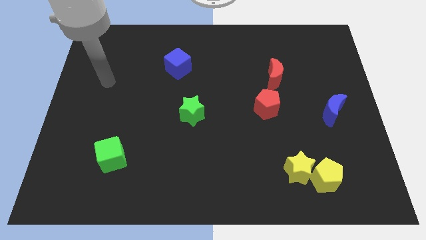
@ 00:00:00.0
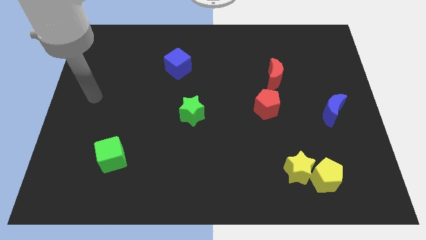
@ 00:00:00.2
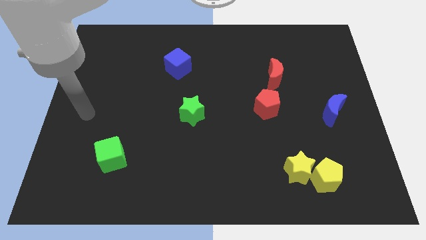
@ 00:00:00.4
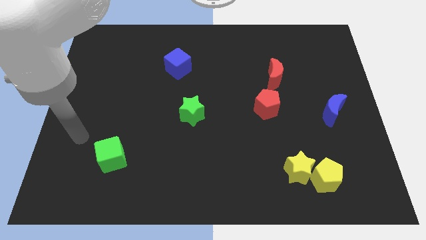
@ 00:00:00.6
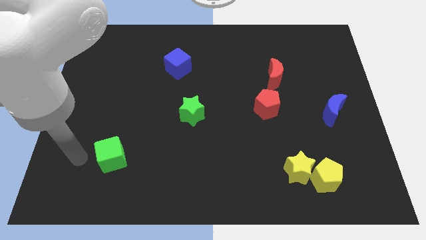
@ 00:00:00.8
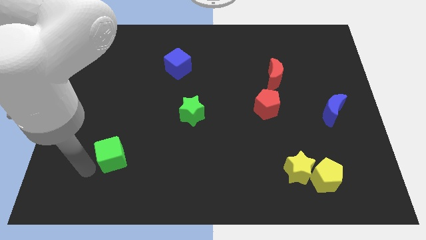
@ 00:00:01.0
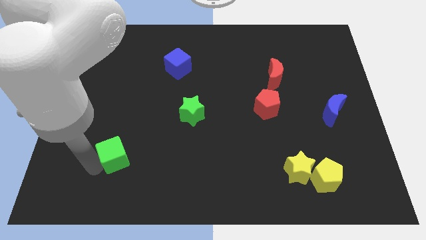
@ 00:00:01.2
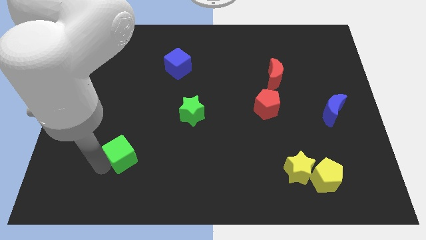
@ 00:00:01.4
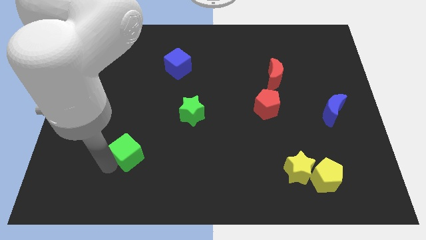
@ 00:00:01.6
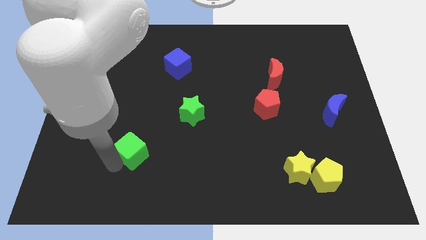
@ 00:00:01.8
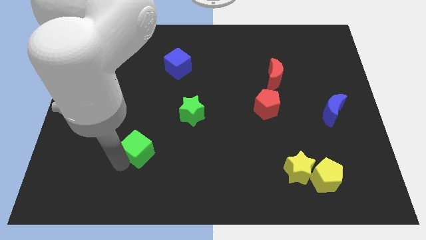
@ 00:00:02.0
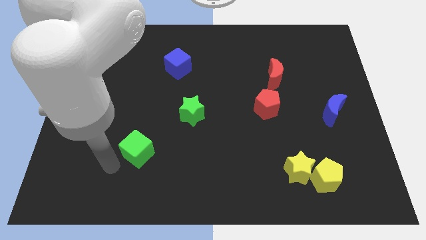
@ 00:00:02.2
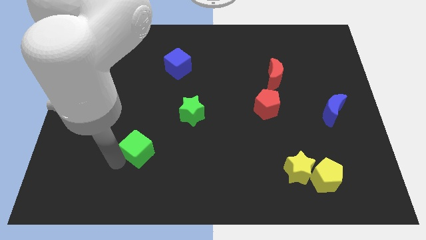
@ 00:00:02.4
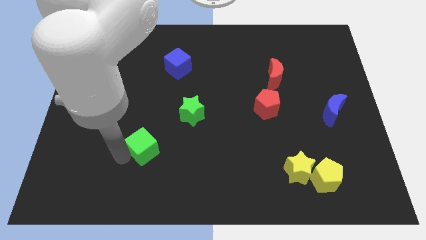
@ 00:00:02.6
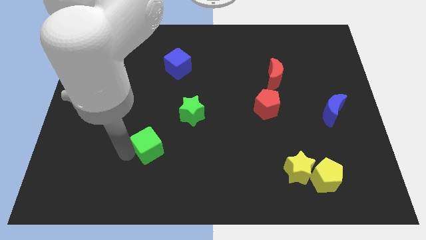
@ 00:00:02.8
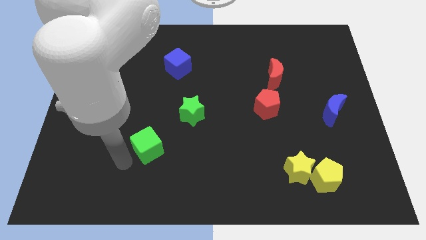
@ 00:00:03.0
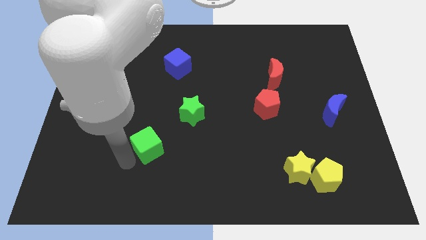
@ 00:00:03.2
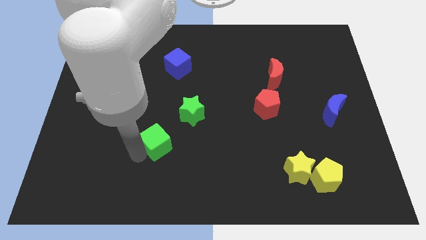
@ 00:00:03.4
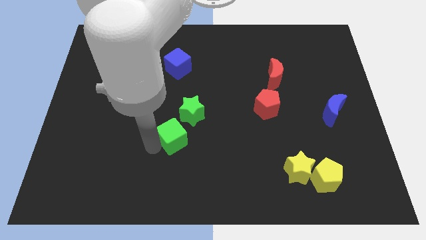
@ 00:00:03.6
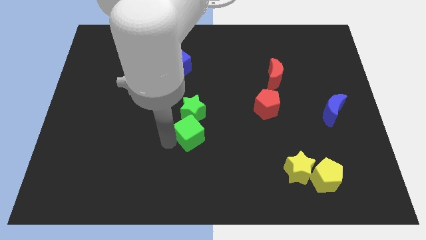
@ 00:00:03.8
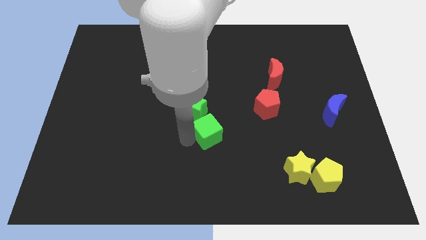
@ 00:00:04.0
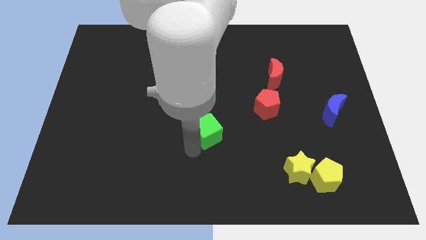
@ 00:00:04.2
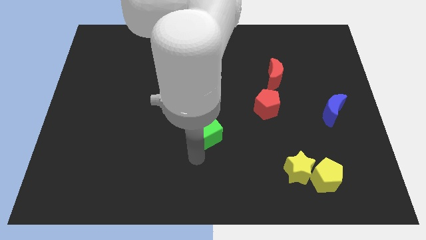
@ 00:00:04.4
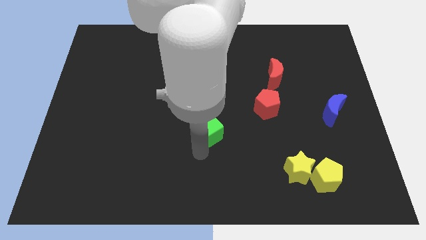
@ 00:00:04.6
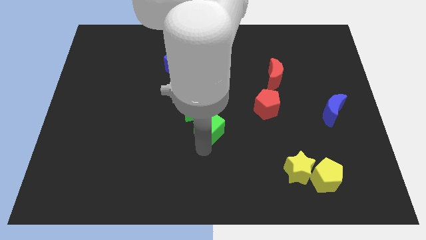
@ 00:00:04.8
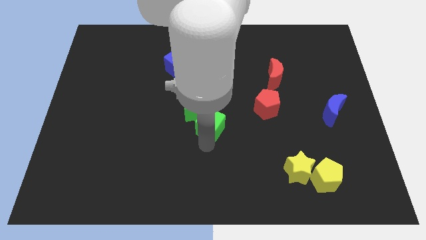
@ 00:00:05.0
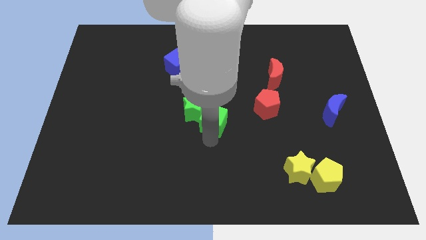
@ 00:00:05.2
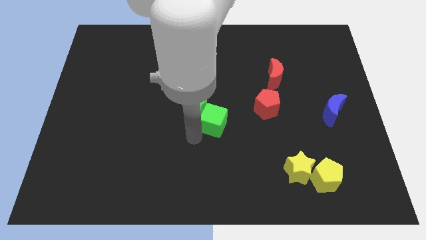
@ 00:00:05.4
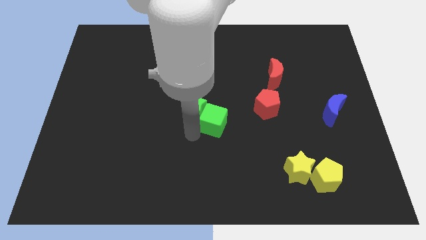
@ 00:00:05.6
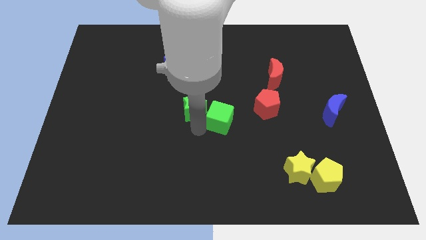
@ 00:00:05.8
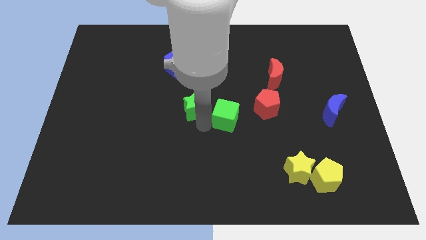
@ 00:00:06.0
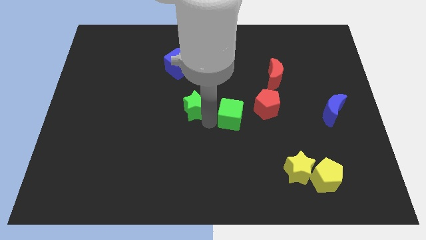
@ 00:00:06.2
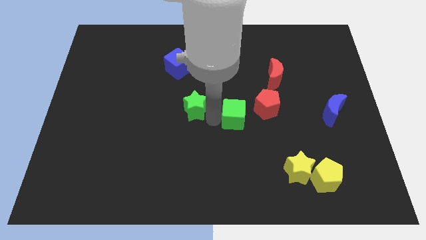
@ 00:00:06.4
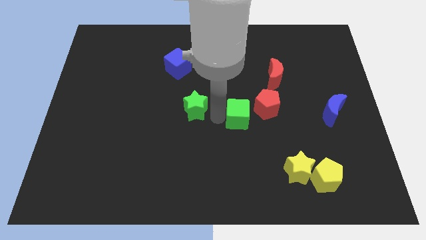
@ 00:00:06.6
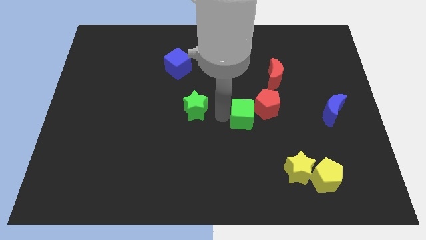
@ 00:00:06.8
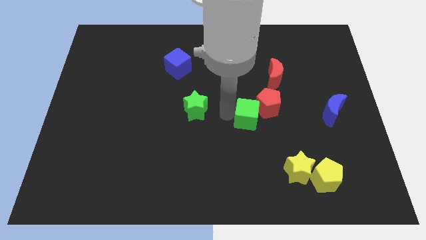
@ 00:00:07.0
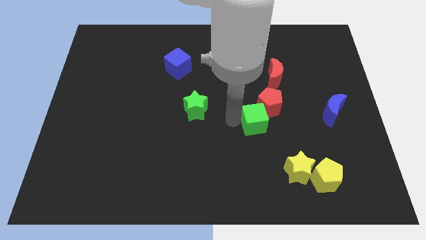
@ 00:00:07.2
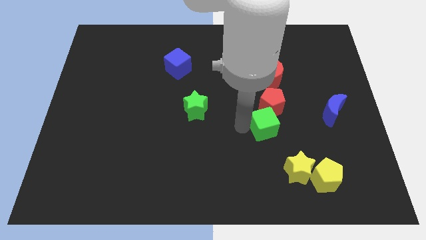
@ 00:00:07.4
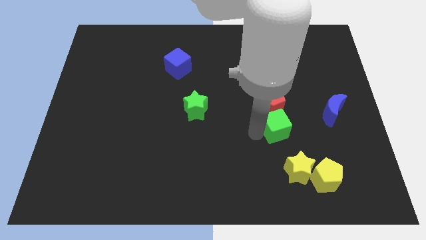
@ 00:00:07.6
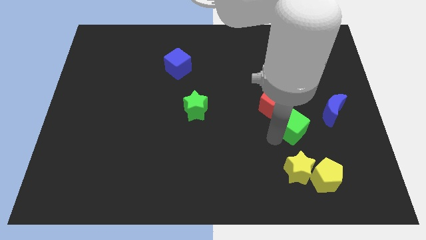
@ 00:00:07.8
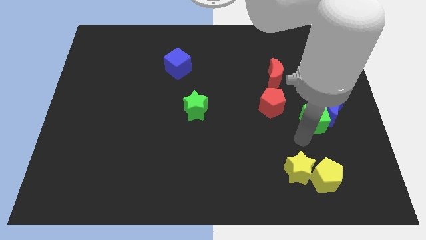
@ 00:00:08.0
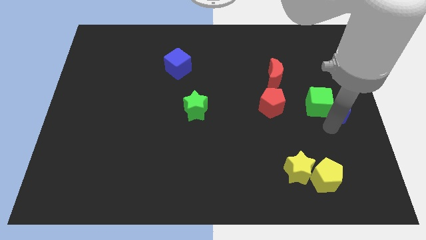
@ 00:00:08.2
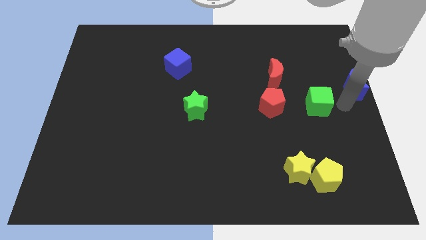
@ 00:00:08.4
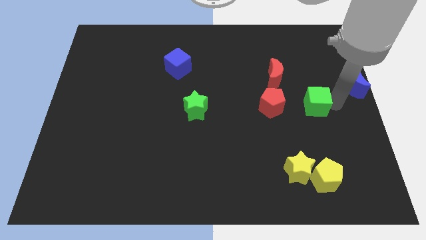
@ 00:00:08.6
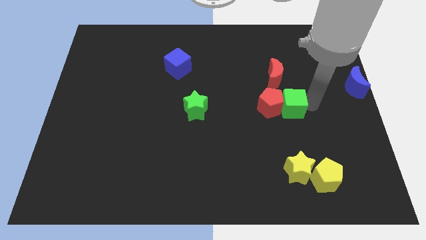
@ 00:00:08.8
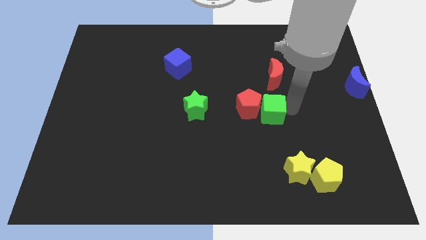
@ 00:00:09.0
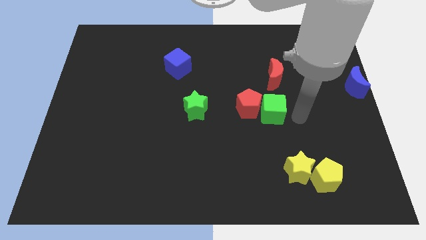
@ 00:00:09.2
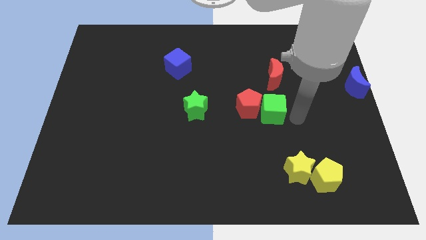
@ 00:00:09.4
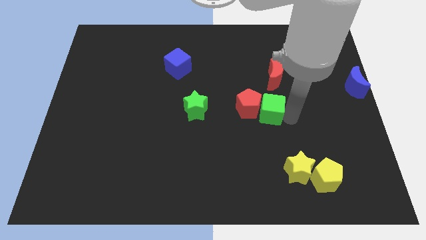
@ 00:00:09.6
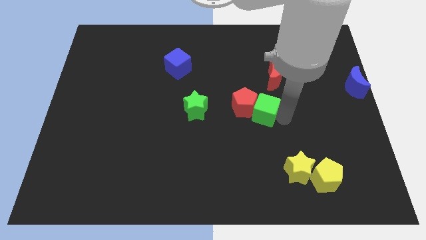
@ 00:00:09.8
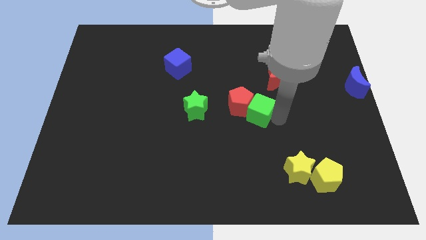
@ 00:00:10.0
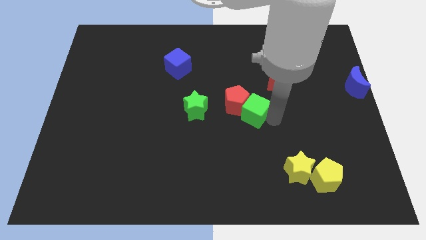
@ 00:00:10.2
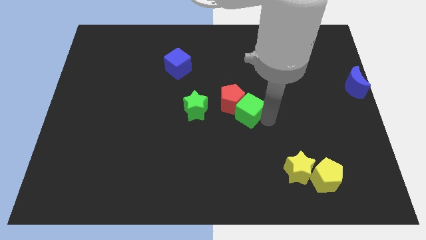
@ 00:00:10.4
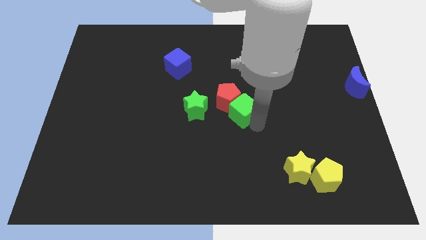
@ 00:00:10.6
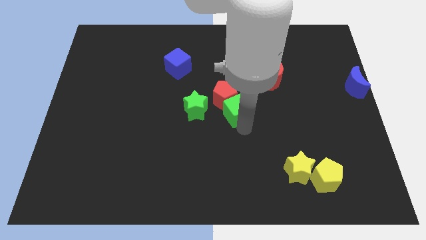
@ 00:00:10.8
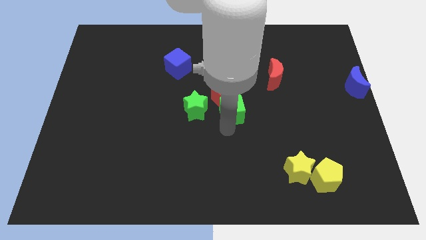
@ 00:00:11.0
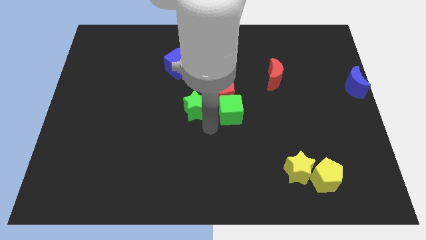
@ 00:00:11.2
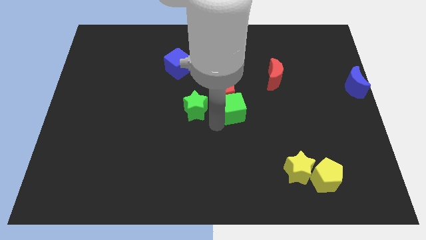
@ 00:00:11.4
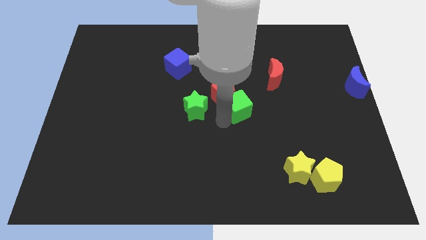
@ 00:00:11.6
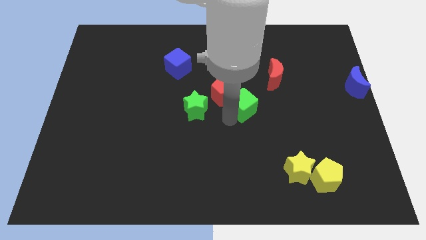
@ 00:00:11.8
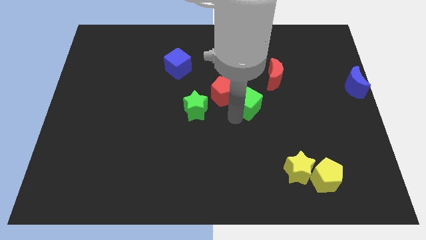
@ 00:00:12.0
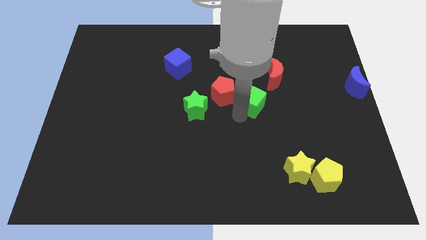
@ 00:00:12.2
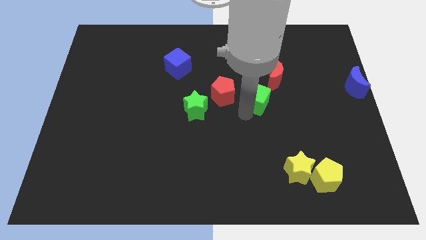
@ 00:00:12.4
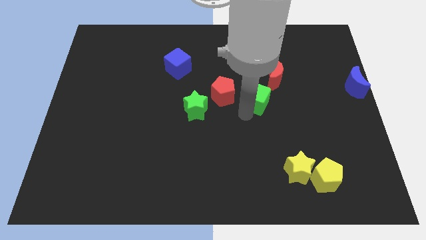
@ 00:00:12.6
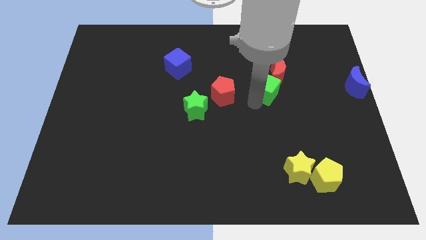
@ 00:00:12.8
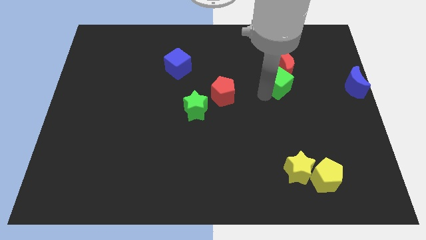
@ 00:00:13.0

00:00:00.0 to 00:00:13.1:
push the green cube close to the red moon
